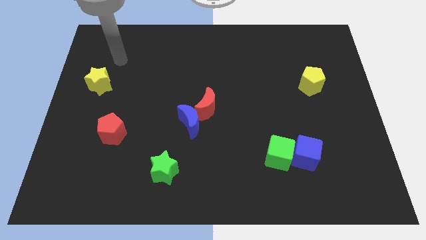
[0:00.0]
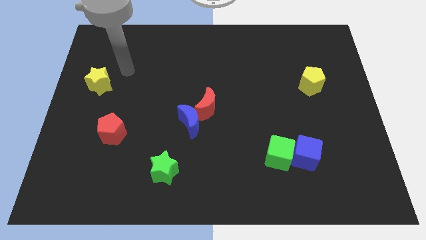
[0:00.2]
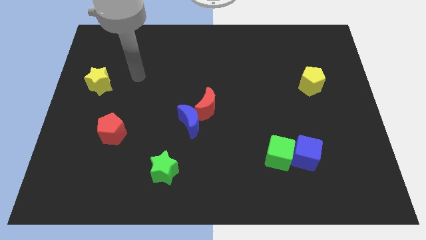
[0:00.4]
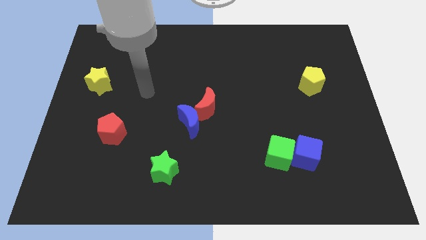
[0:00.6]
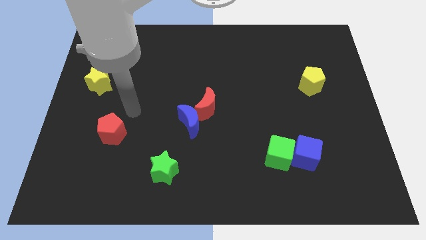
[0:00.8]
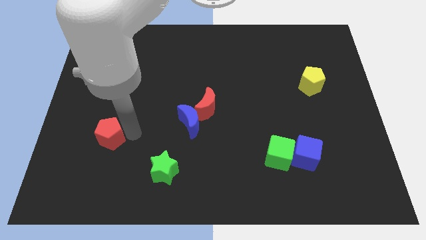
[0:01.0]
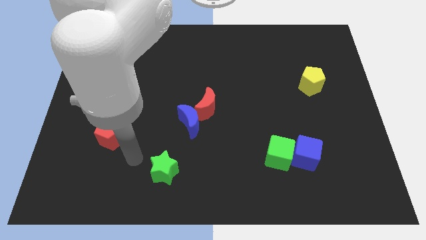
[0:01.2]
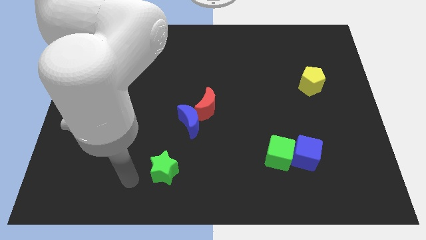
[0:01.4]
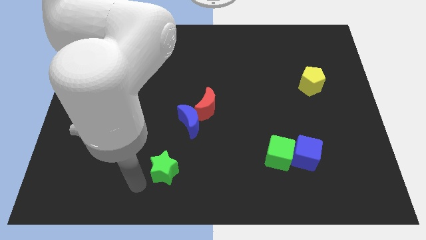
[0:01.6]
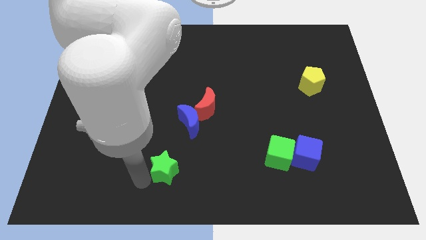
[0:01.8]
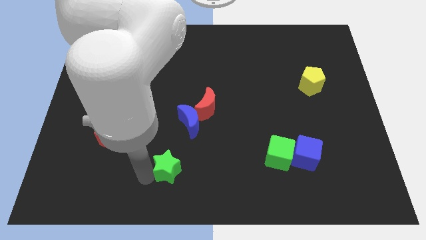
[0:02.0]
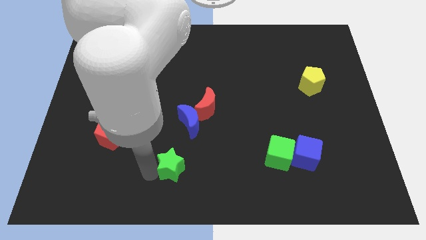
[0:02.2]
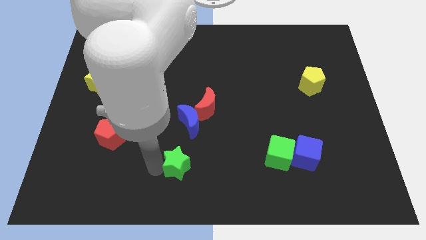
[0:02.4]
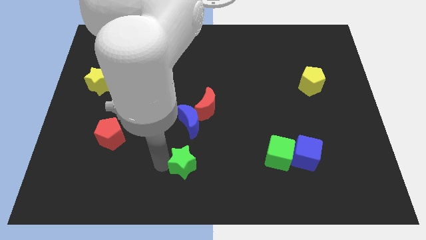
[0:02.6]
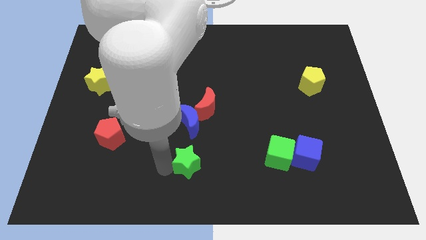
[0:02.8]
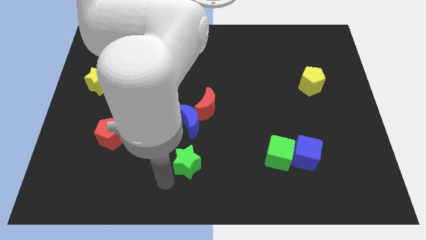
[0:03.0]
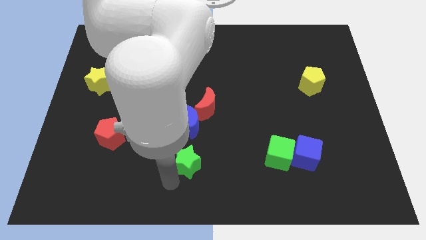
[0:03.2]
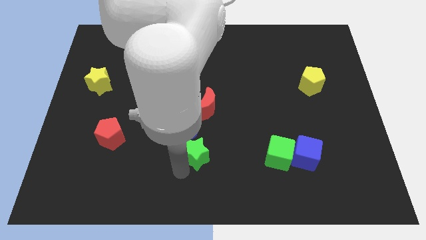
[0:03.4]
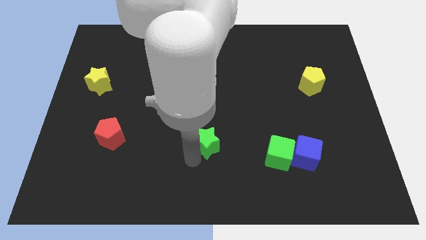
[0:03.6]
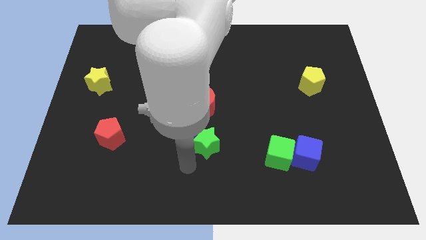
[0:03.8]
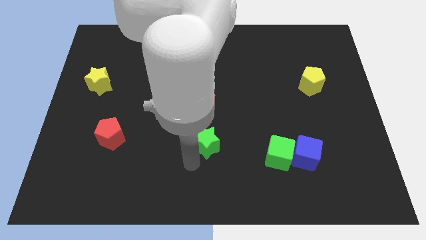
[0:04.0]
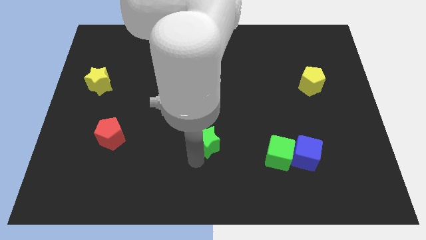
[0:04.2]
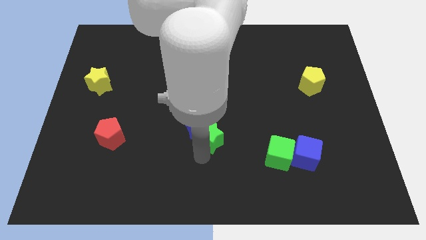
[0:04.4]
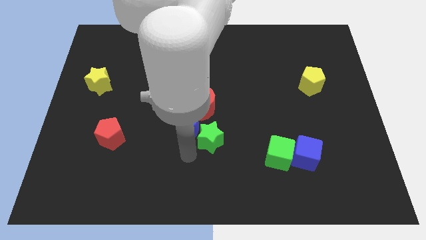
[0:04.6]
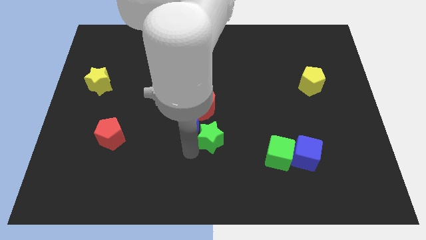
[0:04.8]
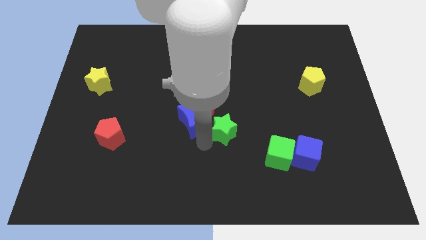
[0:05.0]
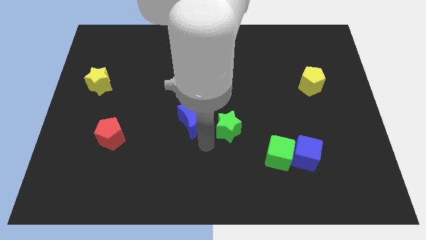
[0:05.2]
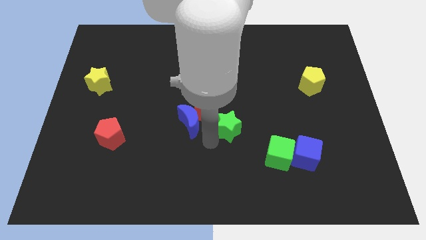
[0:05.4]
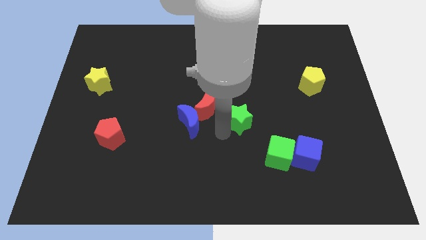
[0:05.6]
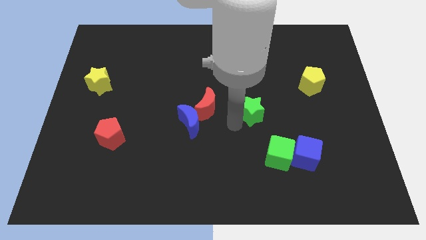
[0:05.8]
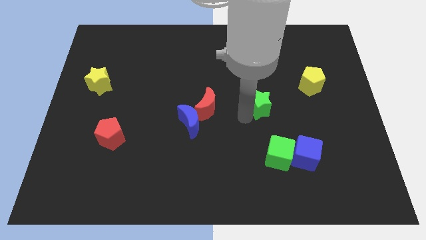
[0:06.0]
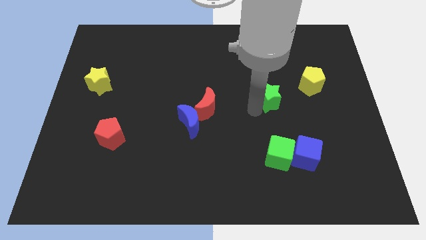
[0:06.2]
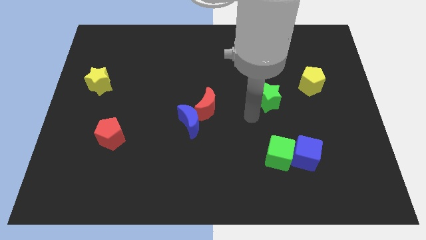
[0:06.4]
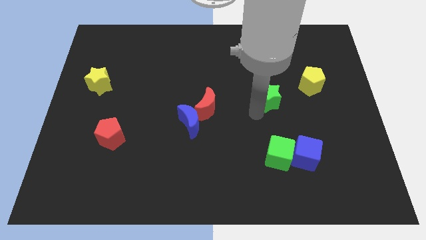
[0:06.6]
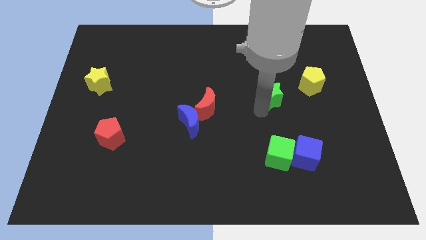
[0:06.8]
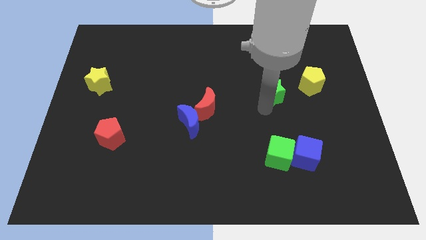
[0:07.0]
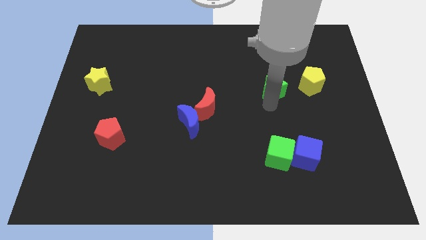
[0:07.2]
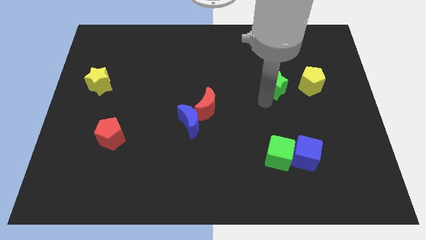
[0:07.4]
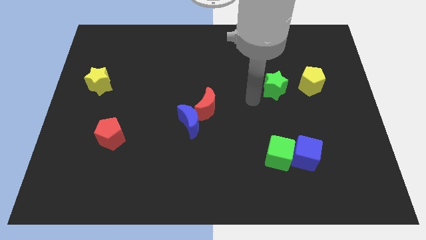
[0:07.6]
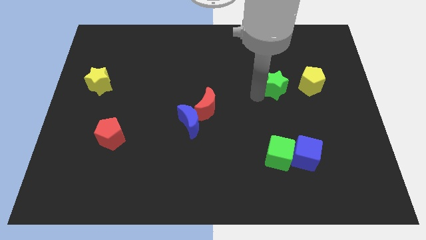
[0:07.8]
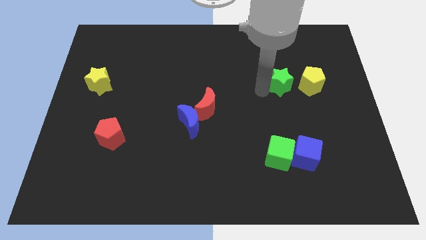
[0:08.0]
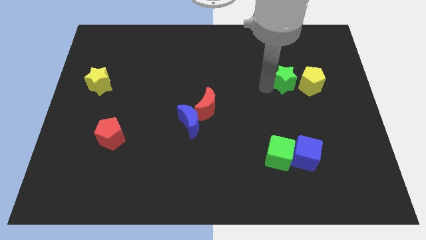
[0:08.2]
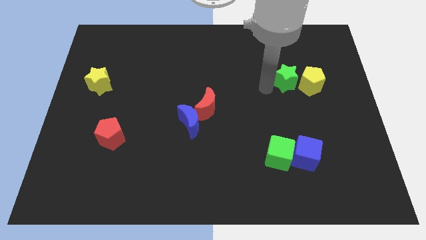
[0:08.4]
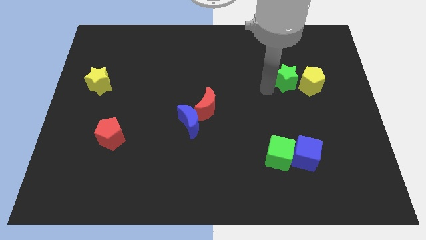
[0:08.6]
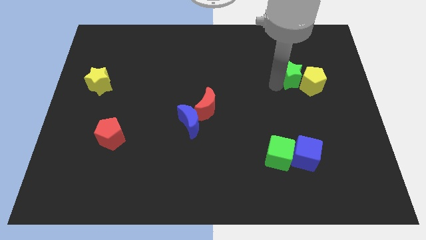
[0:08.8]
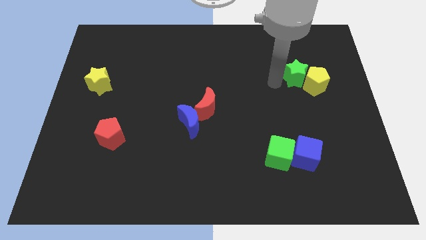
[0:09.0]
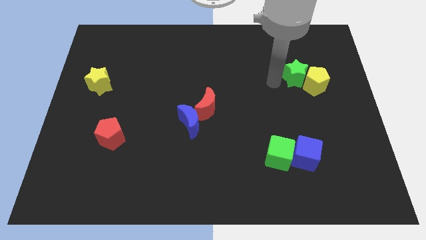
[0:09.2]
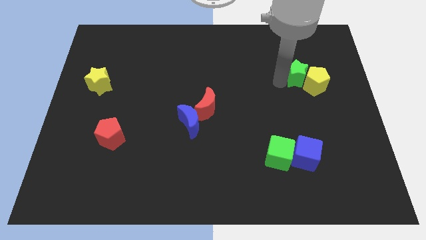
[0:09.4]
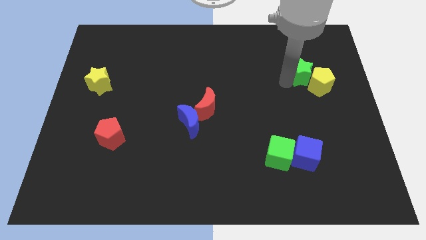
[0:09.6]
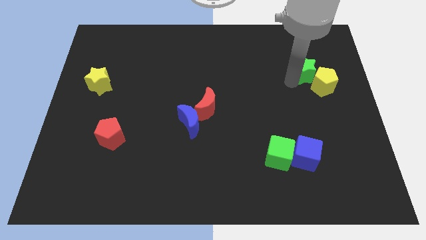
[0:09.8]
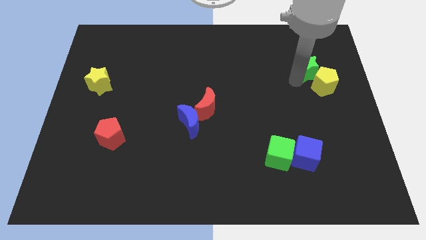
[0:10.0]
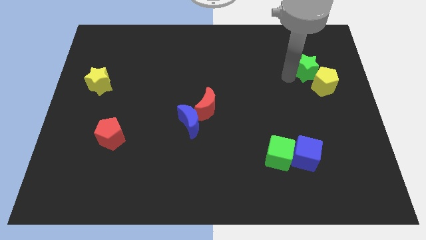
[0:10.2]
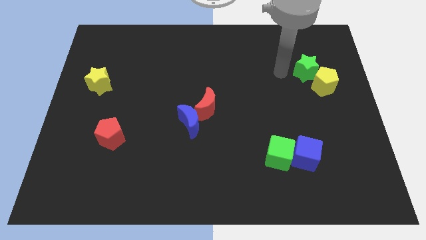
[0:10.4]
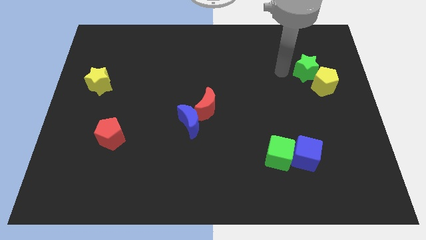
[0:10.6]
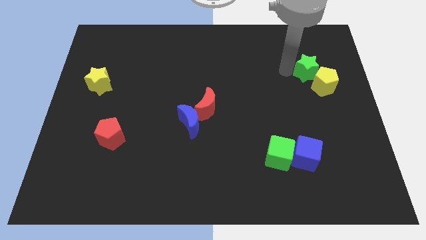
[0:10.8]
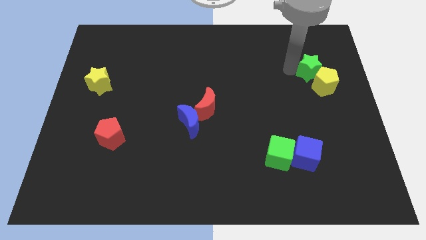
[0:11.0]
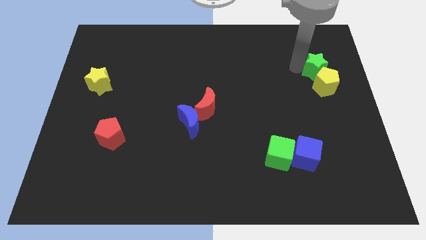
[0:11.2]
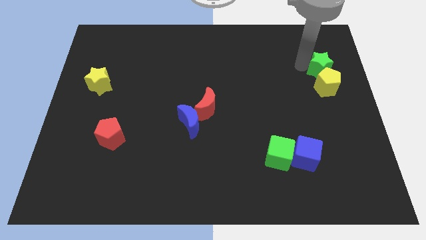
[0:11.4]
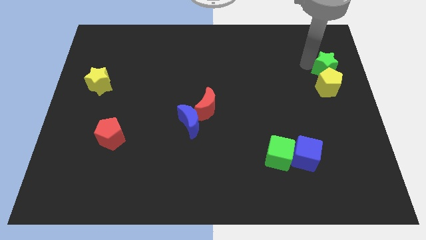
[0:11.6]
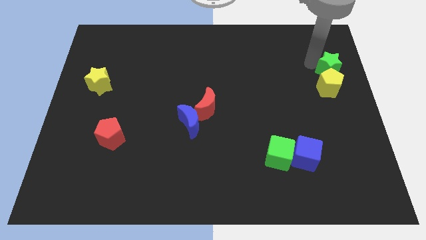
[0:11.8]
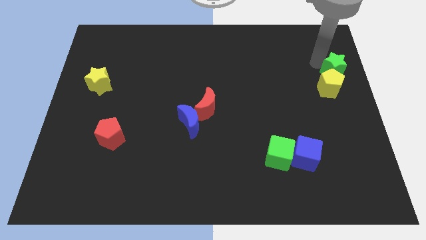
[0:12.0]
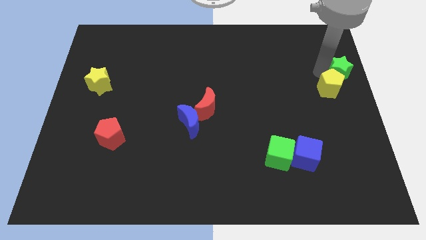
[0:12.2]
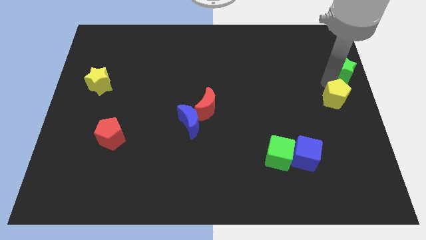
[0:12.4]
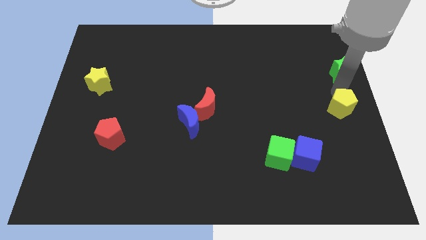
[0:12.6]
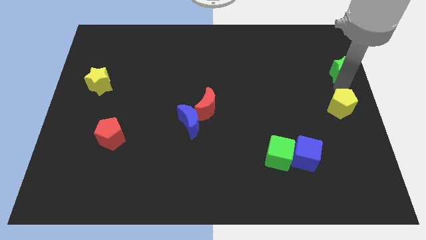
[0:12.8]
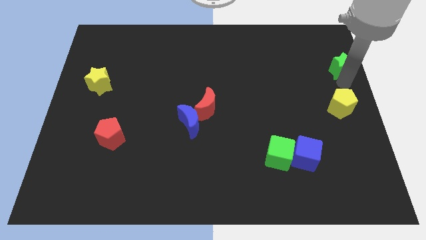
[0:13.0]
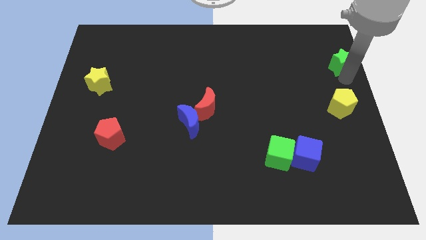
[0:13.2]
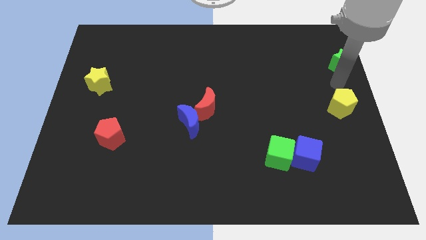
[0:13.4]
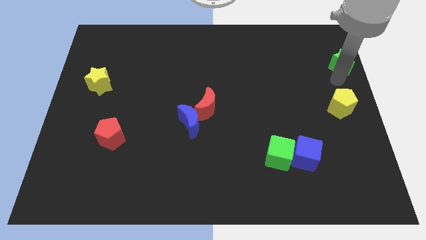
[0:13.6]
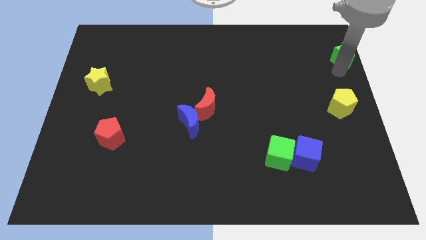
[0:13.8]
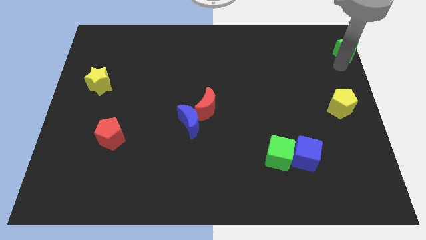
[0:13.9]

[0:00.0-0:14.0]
push the green star to the upper right corner
